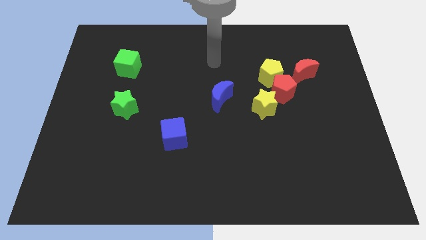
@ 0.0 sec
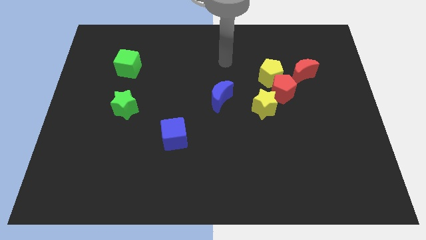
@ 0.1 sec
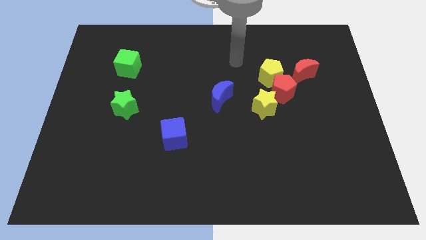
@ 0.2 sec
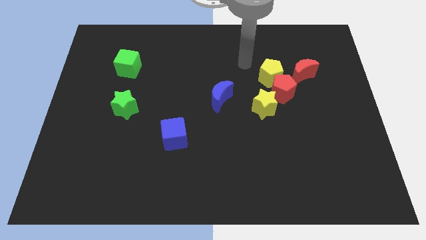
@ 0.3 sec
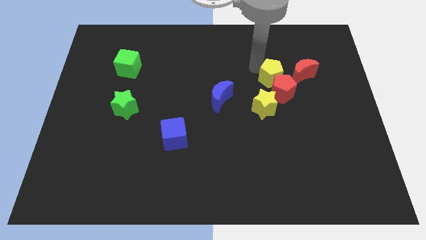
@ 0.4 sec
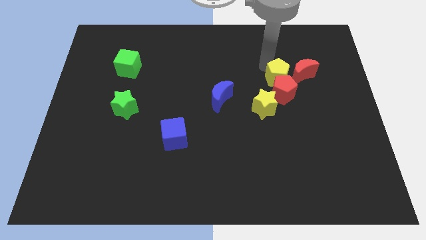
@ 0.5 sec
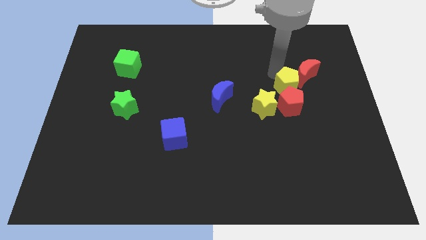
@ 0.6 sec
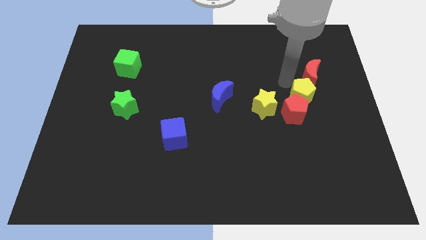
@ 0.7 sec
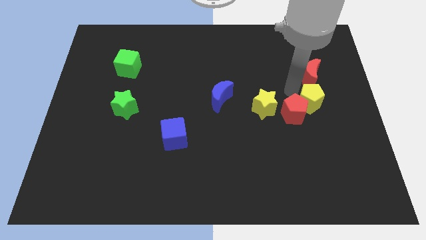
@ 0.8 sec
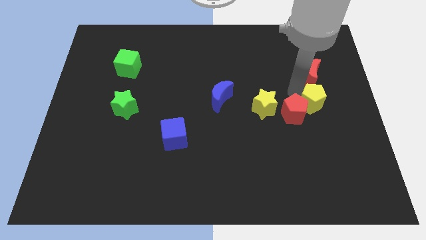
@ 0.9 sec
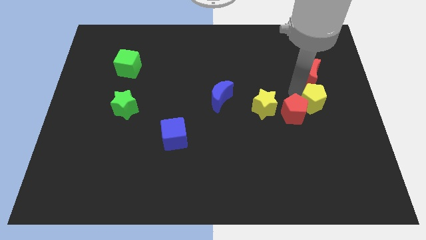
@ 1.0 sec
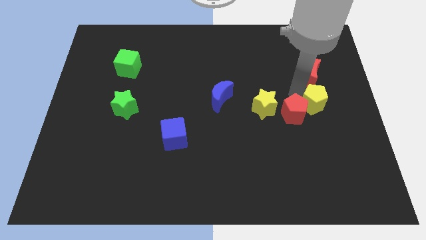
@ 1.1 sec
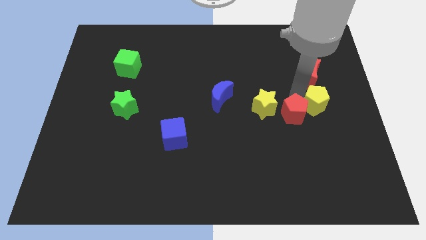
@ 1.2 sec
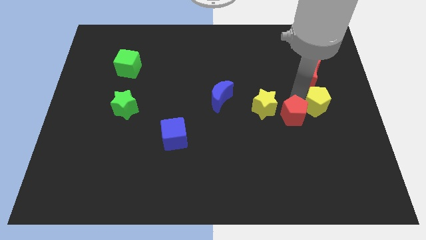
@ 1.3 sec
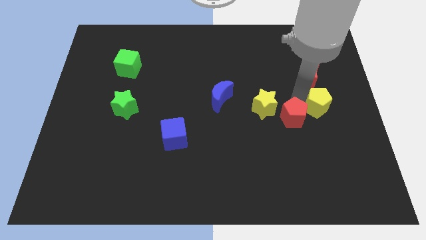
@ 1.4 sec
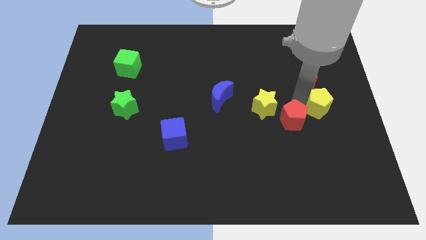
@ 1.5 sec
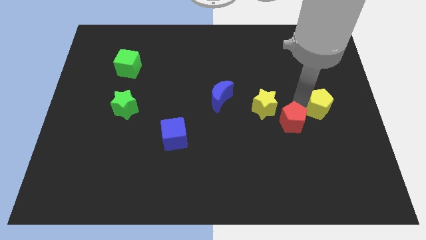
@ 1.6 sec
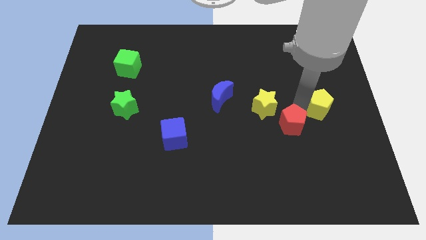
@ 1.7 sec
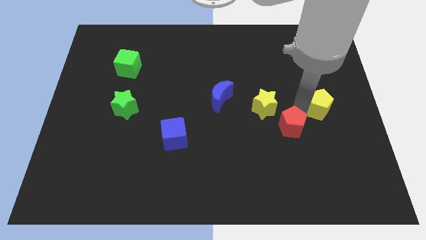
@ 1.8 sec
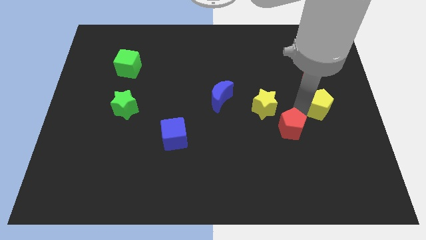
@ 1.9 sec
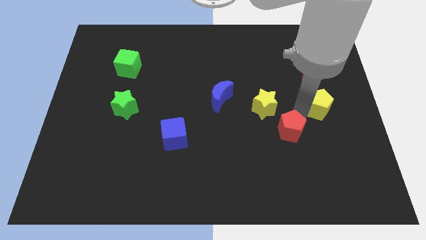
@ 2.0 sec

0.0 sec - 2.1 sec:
pull the red pentagon apart from the clump

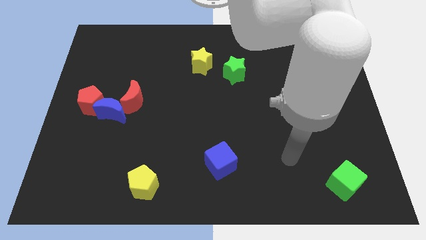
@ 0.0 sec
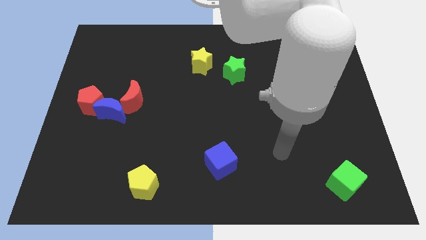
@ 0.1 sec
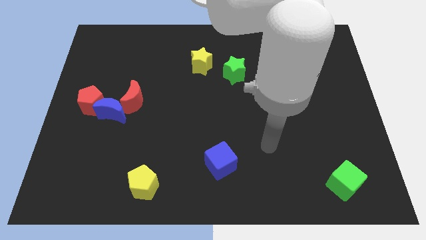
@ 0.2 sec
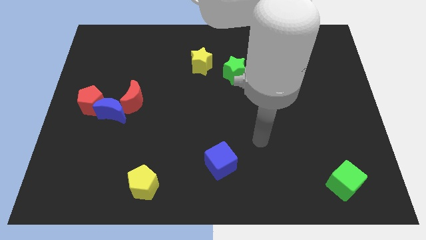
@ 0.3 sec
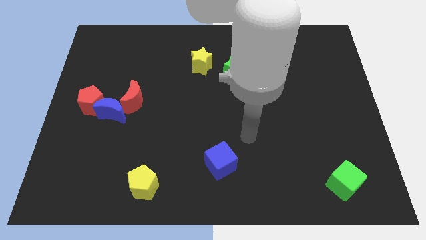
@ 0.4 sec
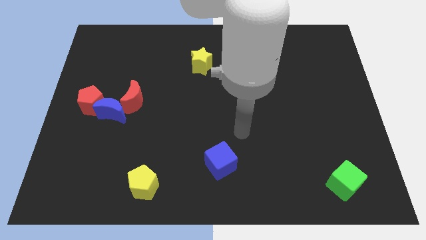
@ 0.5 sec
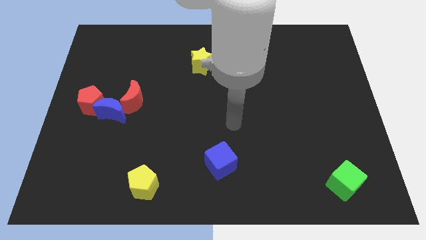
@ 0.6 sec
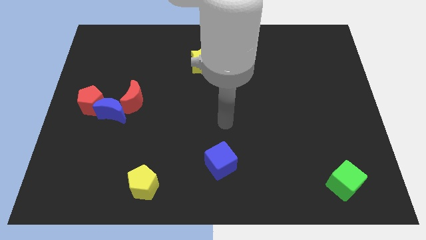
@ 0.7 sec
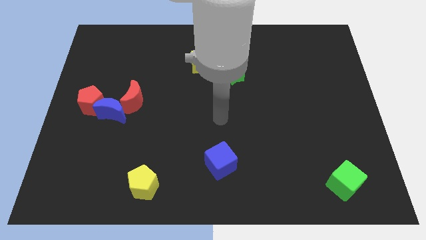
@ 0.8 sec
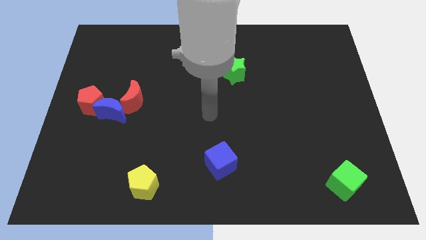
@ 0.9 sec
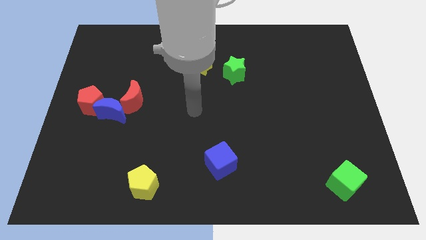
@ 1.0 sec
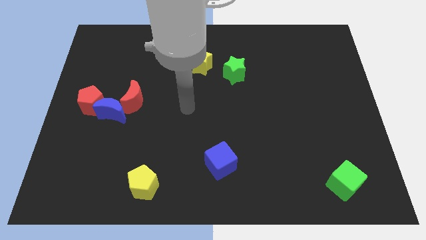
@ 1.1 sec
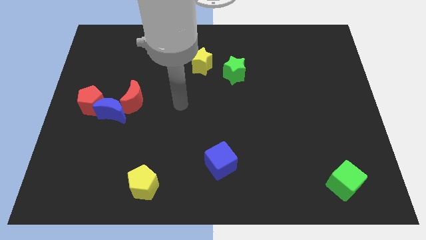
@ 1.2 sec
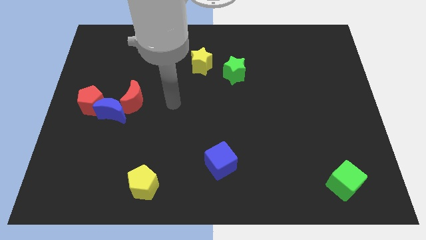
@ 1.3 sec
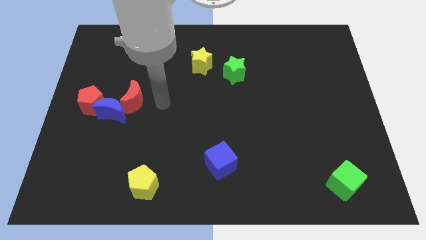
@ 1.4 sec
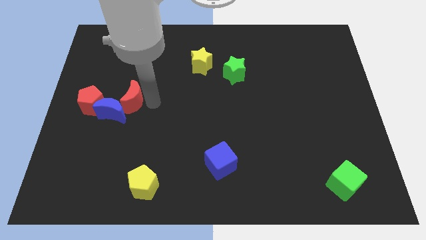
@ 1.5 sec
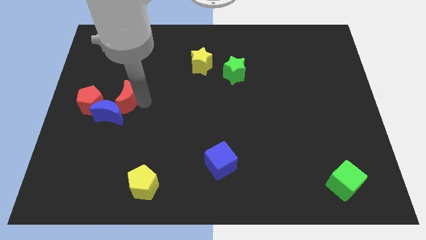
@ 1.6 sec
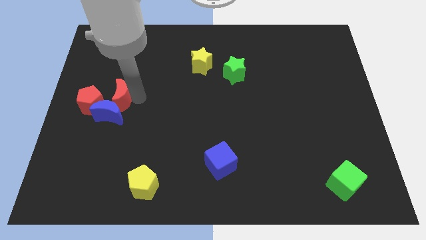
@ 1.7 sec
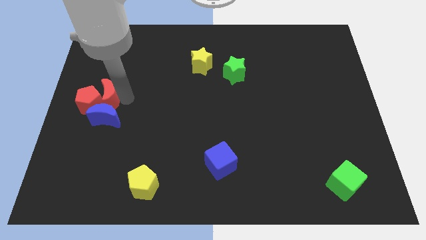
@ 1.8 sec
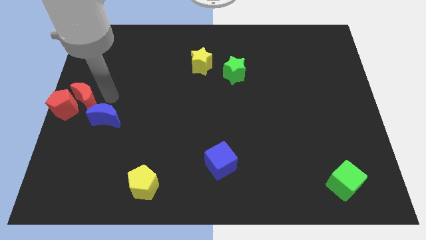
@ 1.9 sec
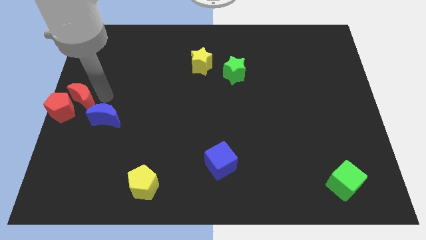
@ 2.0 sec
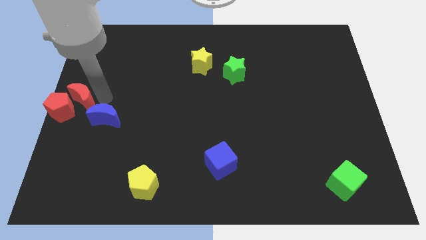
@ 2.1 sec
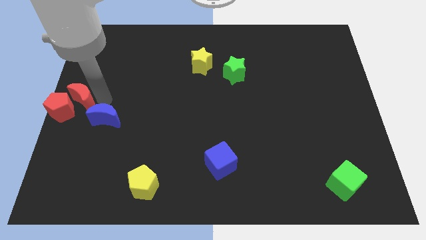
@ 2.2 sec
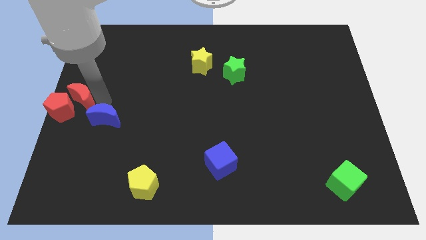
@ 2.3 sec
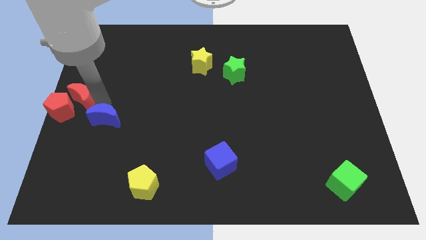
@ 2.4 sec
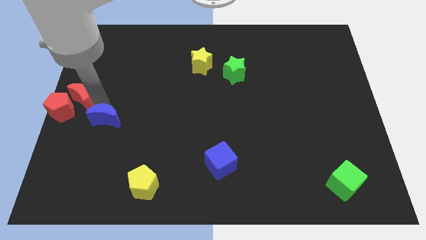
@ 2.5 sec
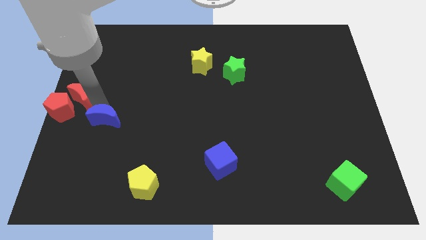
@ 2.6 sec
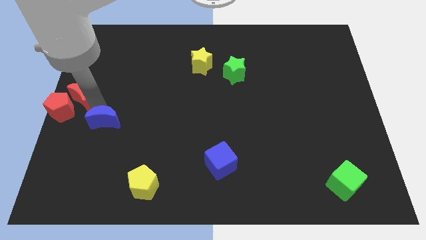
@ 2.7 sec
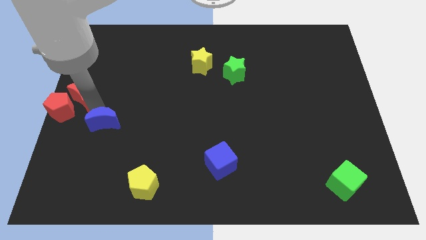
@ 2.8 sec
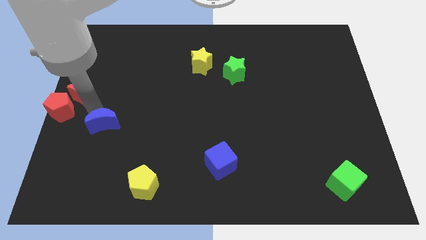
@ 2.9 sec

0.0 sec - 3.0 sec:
move the blue moon away from the red pentagon and red moon

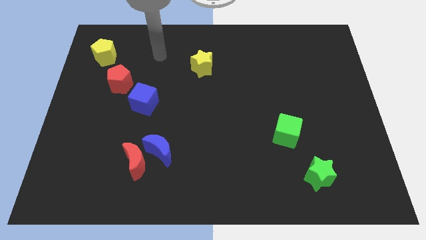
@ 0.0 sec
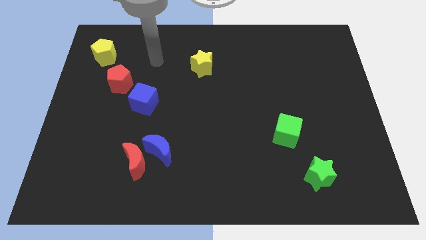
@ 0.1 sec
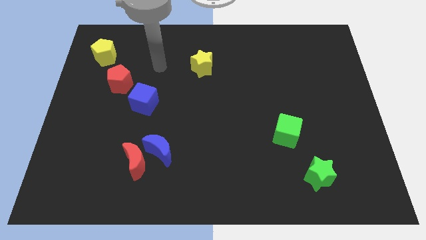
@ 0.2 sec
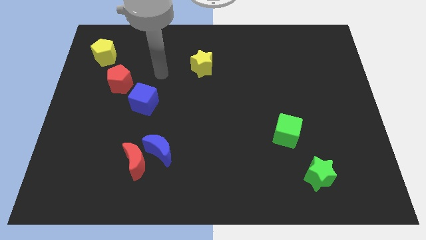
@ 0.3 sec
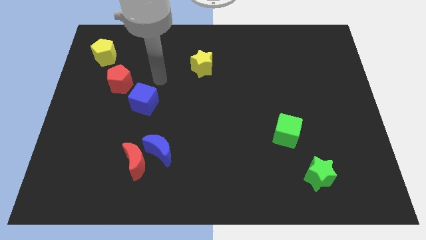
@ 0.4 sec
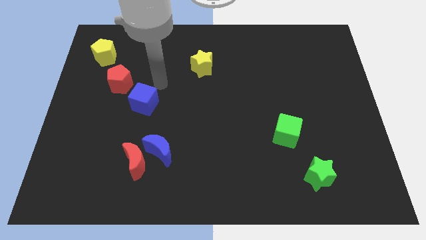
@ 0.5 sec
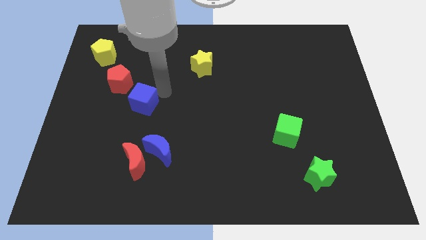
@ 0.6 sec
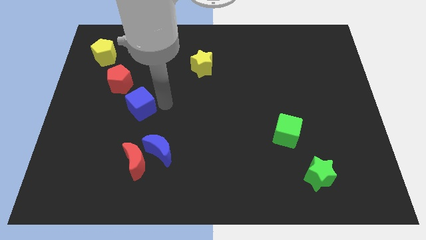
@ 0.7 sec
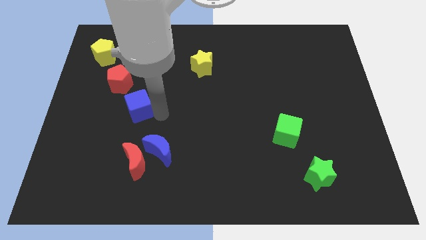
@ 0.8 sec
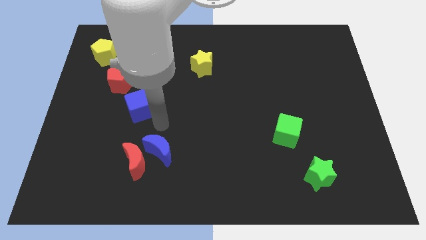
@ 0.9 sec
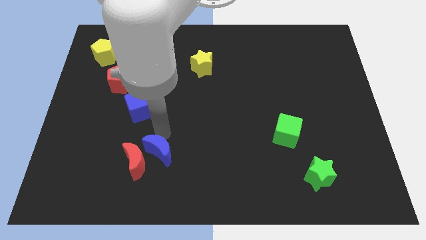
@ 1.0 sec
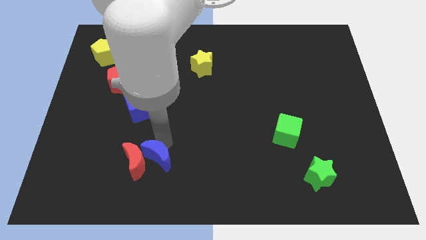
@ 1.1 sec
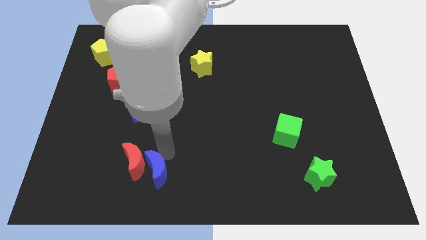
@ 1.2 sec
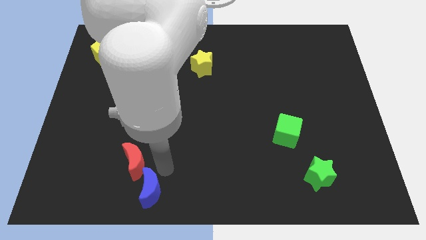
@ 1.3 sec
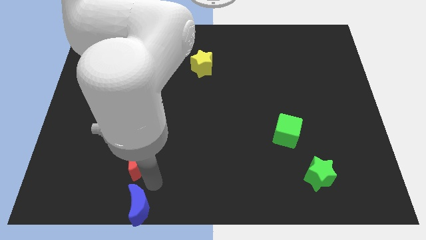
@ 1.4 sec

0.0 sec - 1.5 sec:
pull the red moon apart from the blue moon

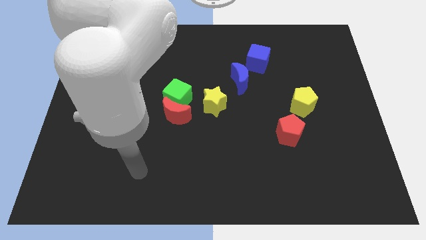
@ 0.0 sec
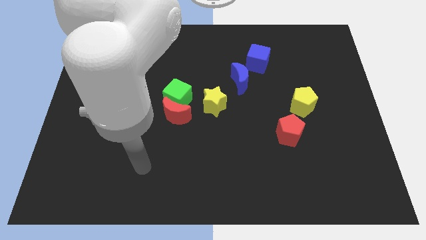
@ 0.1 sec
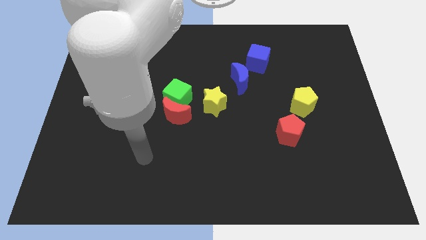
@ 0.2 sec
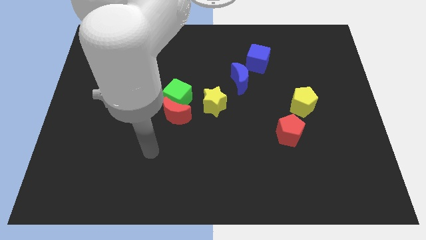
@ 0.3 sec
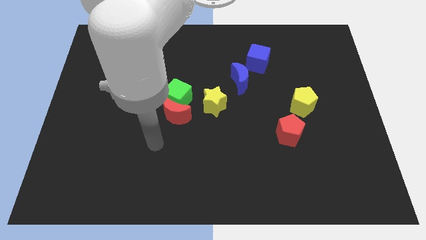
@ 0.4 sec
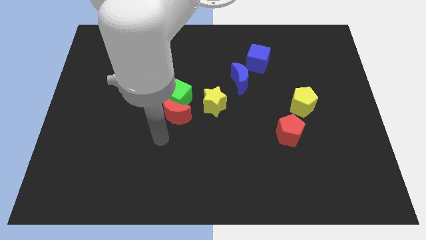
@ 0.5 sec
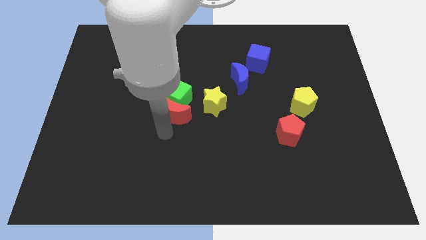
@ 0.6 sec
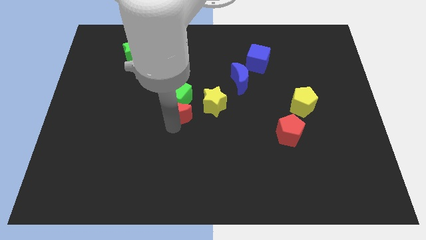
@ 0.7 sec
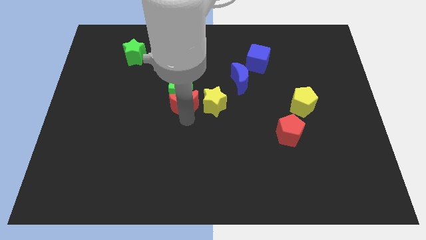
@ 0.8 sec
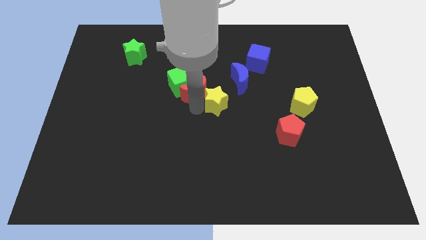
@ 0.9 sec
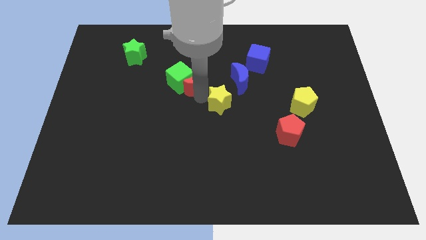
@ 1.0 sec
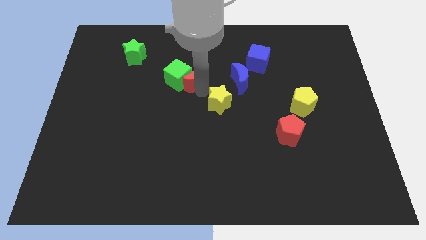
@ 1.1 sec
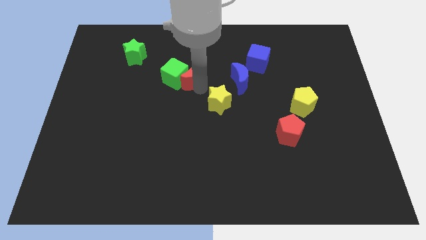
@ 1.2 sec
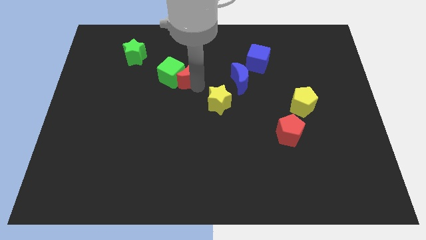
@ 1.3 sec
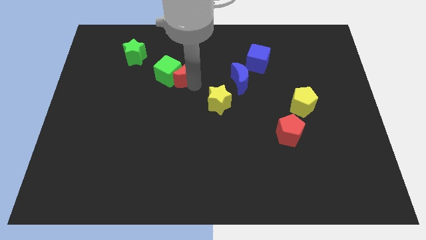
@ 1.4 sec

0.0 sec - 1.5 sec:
separate the green cube from the red moon and yellow star

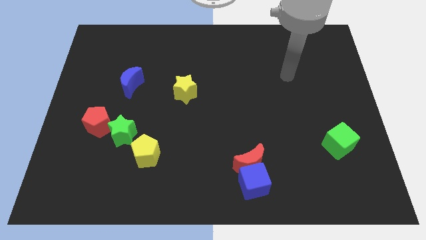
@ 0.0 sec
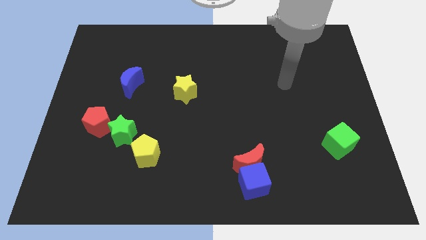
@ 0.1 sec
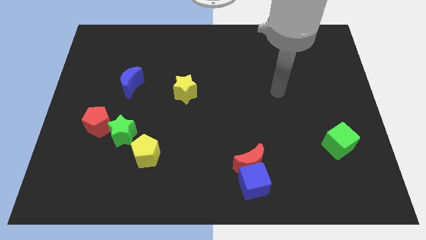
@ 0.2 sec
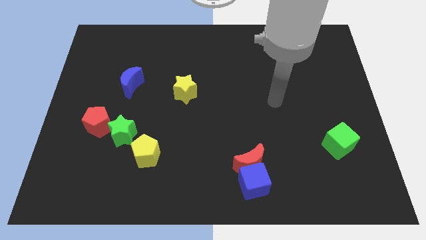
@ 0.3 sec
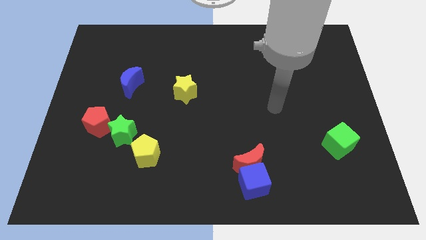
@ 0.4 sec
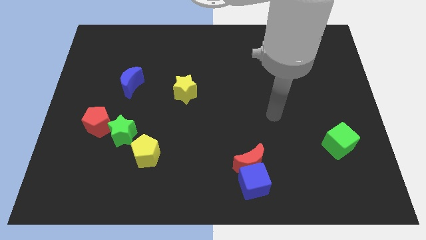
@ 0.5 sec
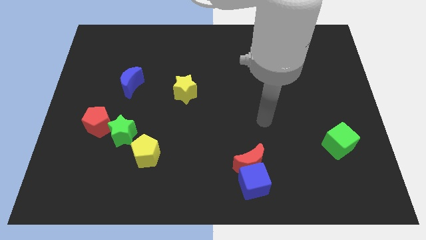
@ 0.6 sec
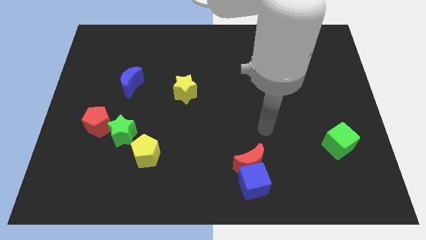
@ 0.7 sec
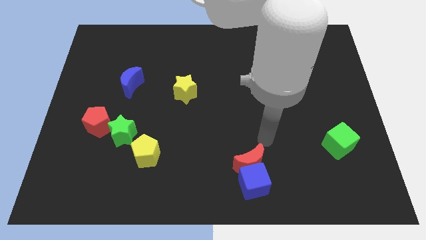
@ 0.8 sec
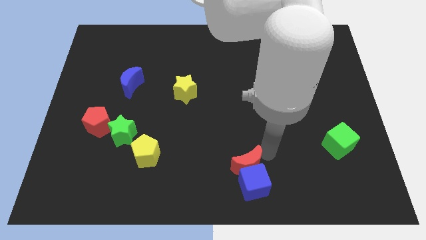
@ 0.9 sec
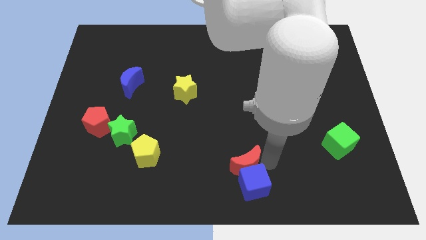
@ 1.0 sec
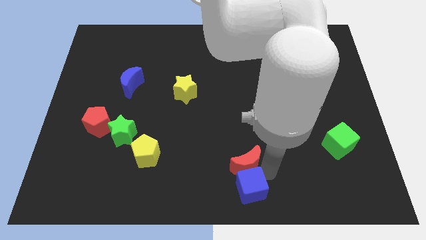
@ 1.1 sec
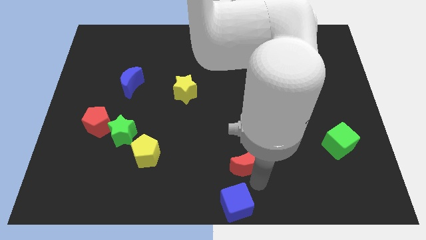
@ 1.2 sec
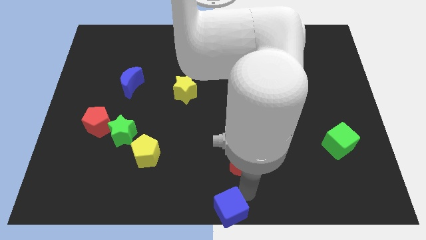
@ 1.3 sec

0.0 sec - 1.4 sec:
move the red moon away from the blue cube
